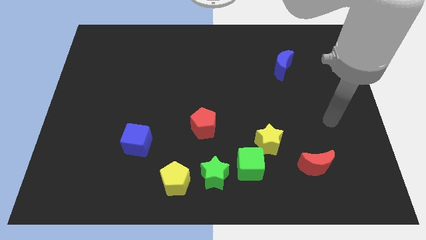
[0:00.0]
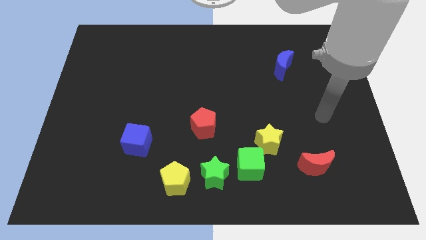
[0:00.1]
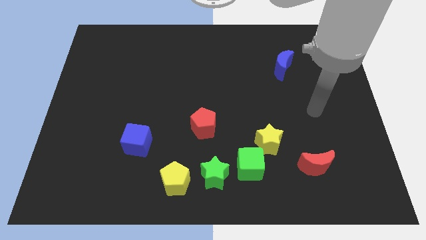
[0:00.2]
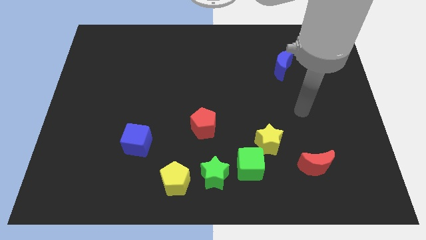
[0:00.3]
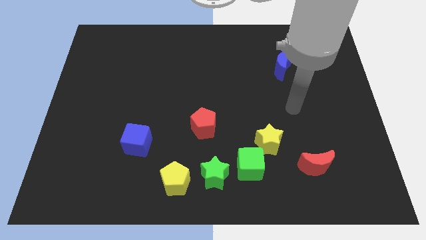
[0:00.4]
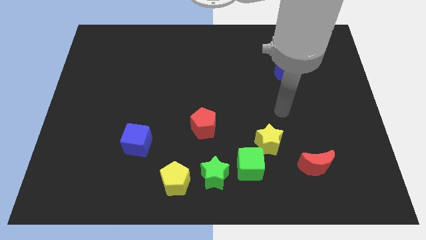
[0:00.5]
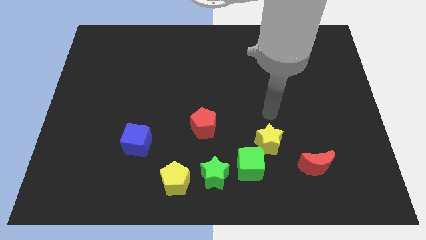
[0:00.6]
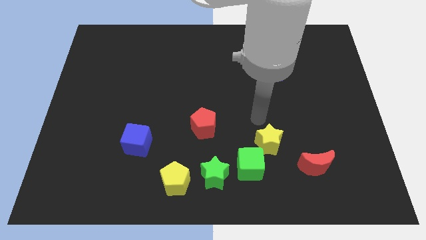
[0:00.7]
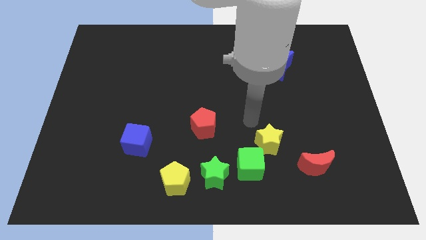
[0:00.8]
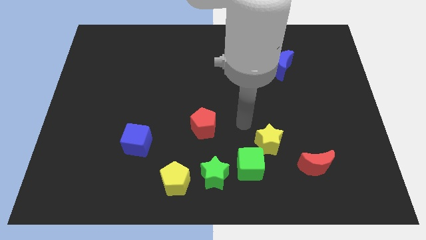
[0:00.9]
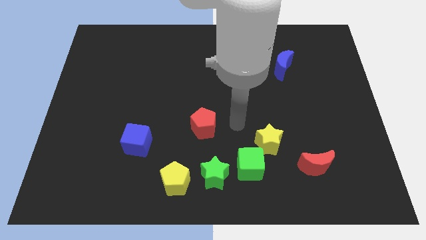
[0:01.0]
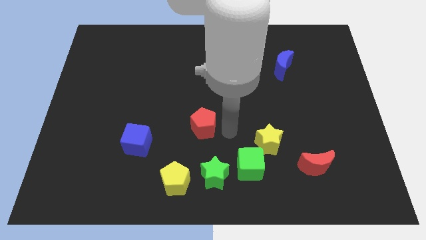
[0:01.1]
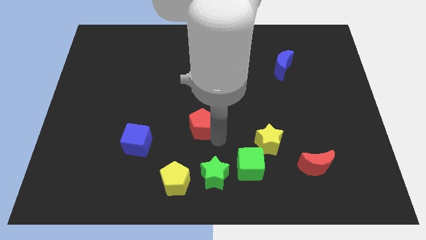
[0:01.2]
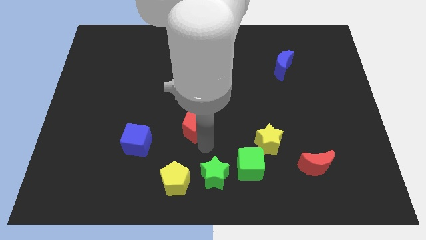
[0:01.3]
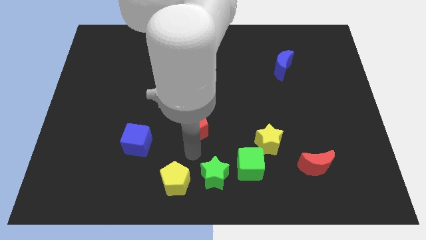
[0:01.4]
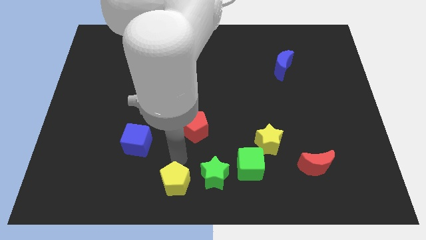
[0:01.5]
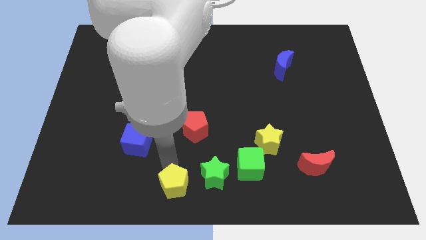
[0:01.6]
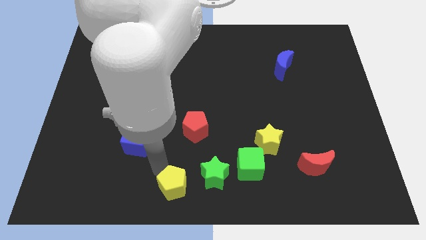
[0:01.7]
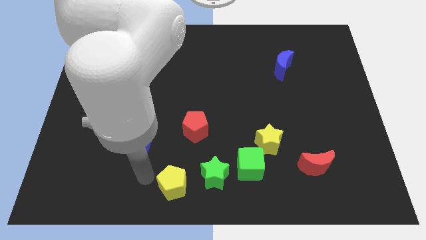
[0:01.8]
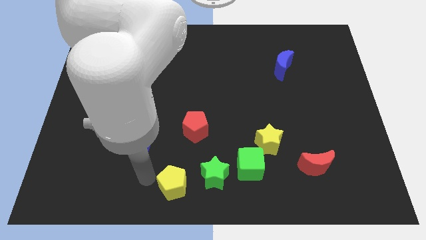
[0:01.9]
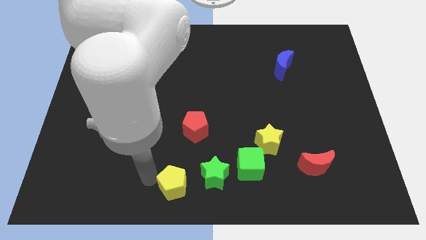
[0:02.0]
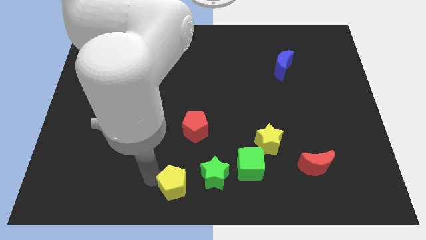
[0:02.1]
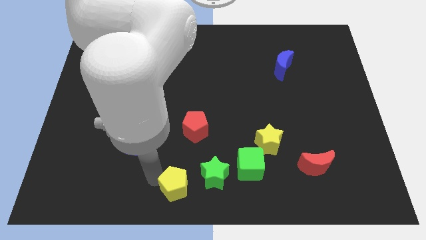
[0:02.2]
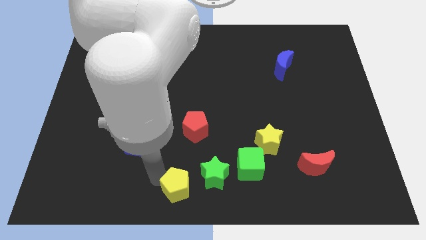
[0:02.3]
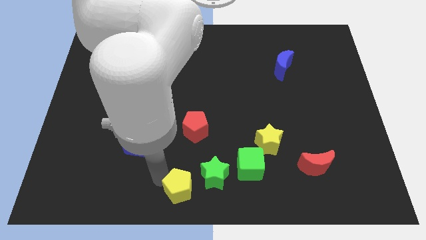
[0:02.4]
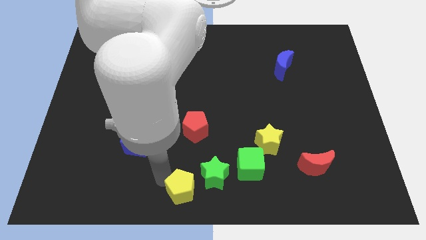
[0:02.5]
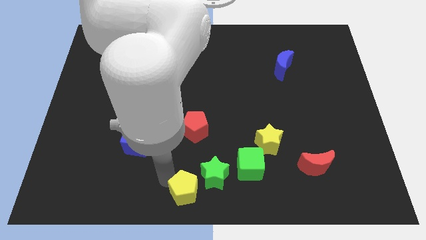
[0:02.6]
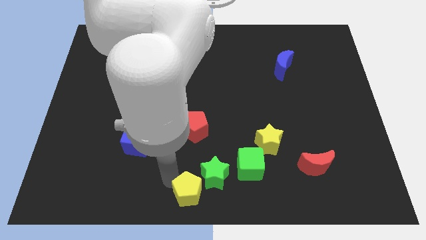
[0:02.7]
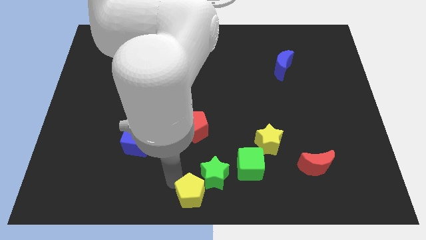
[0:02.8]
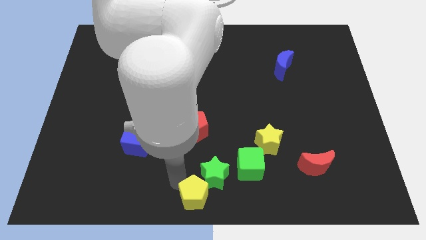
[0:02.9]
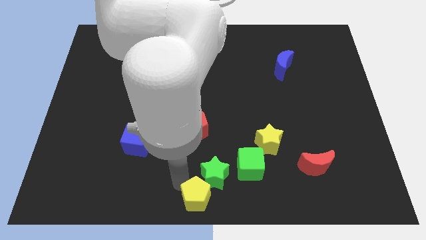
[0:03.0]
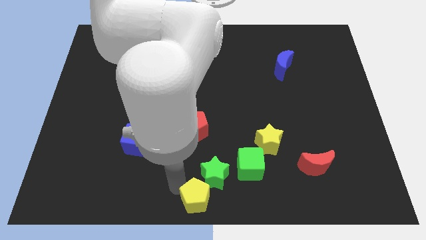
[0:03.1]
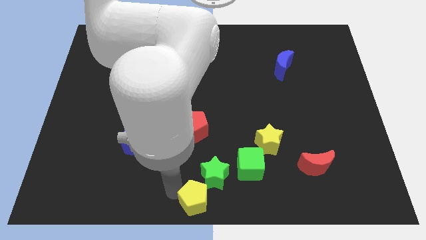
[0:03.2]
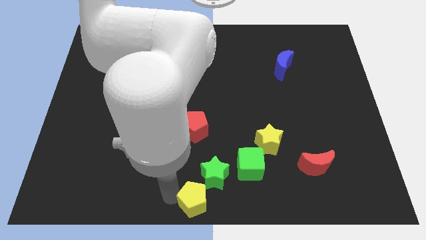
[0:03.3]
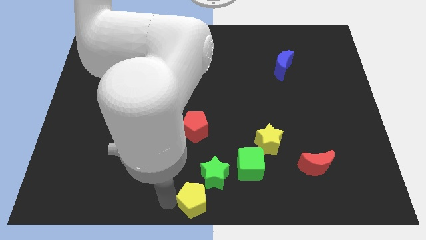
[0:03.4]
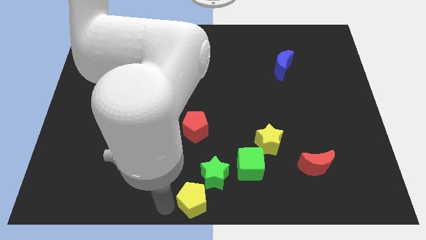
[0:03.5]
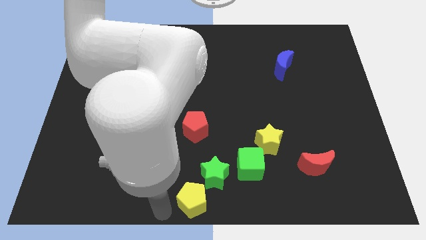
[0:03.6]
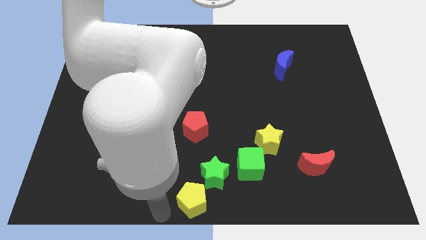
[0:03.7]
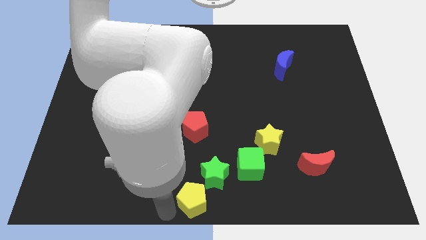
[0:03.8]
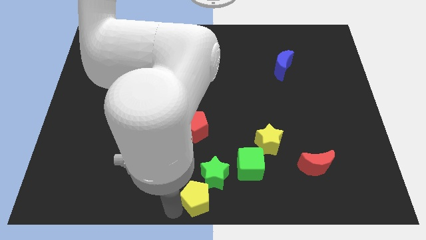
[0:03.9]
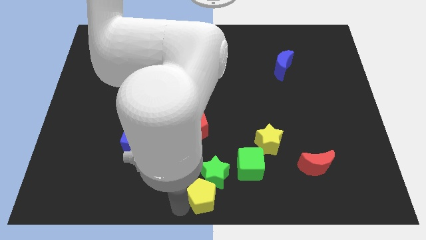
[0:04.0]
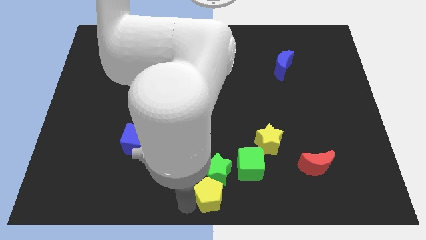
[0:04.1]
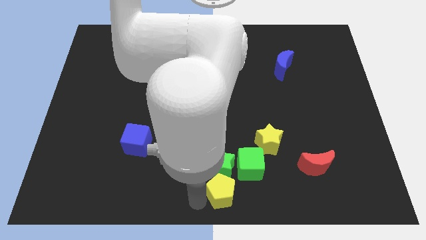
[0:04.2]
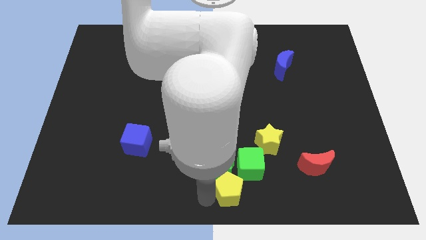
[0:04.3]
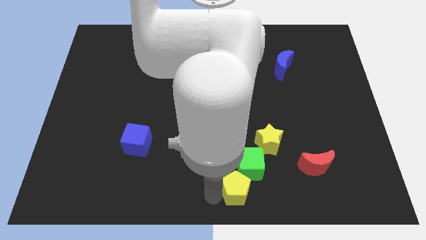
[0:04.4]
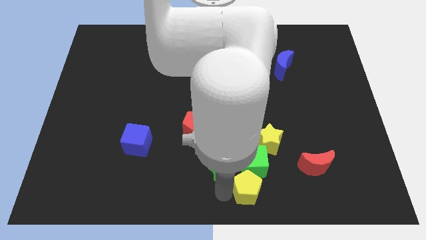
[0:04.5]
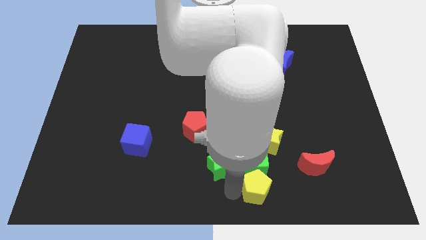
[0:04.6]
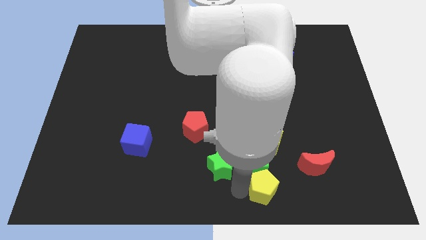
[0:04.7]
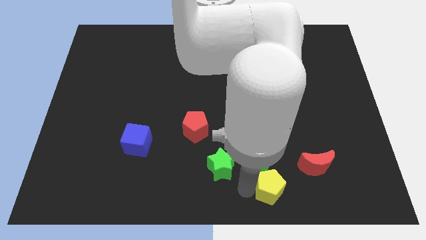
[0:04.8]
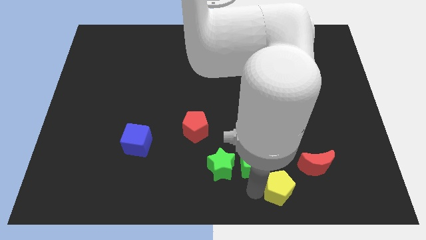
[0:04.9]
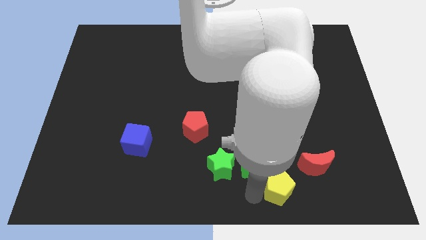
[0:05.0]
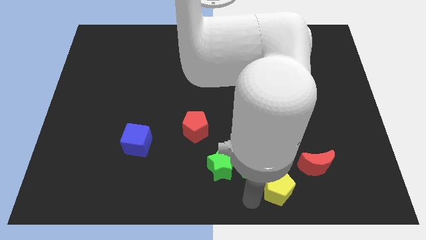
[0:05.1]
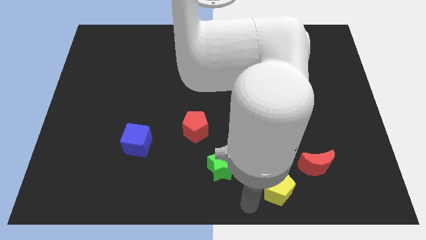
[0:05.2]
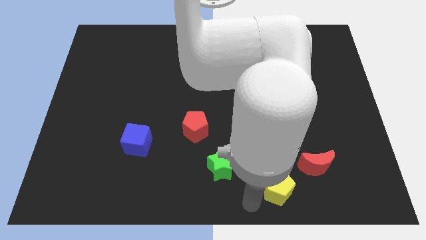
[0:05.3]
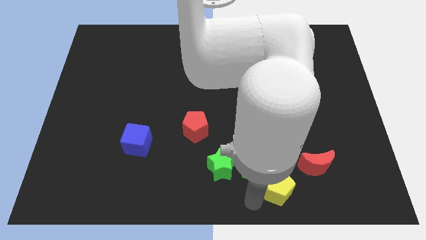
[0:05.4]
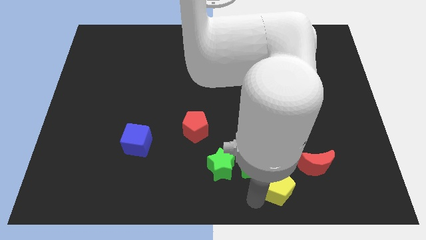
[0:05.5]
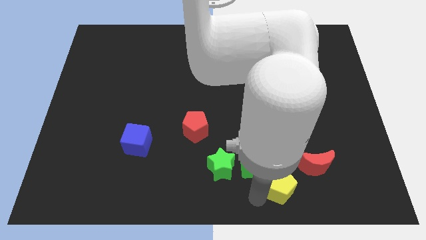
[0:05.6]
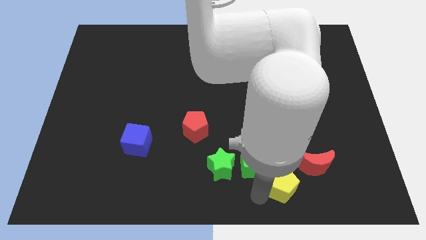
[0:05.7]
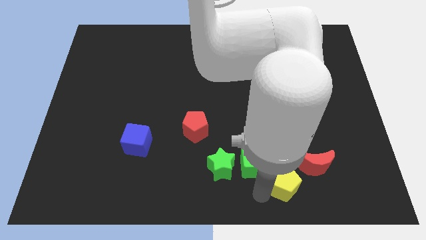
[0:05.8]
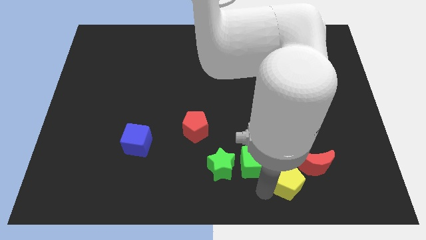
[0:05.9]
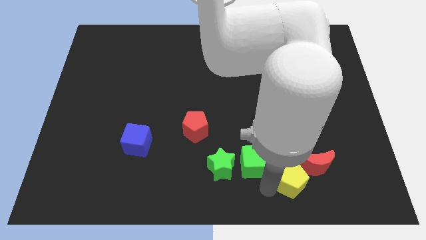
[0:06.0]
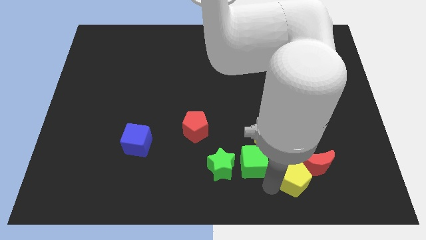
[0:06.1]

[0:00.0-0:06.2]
move the yellow pentagon to the red moon

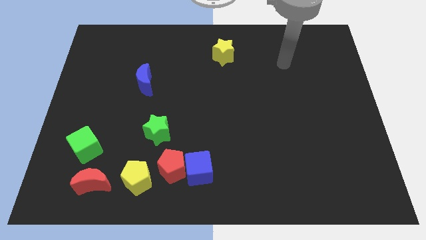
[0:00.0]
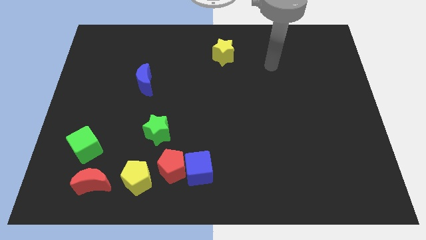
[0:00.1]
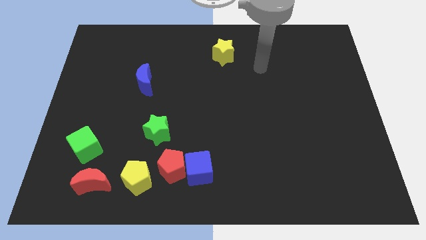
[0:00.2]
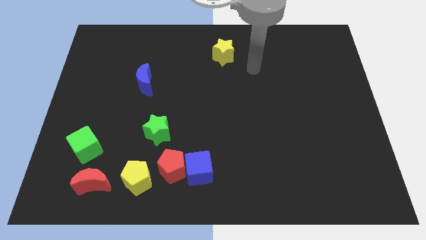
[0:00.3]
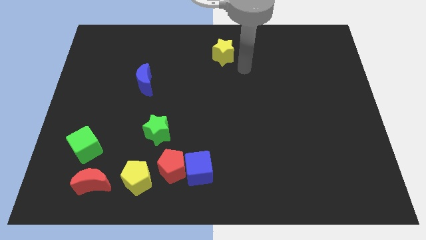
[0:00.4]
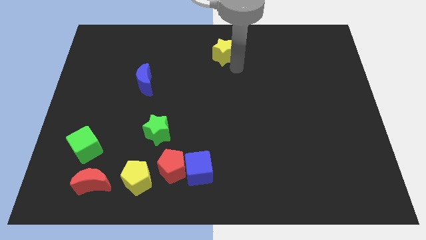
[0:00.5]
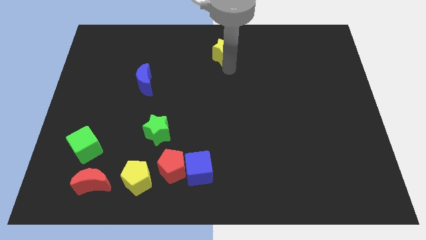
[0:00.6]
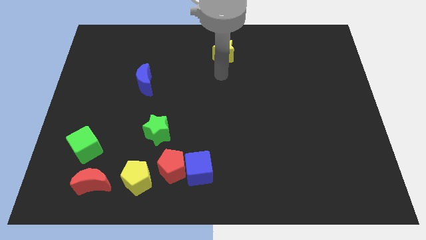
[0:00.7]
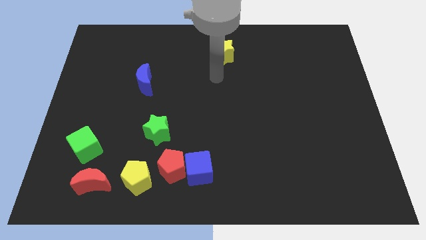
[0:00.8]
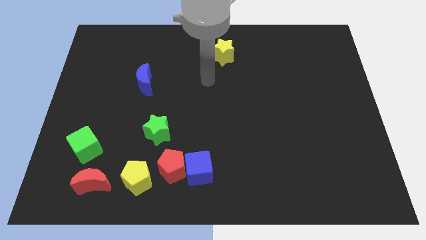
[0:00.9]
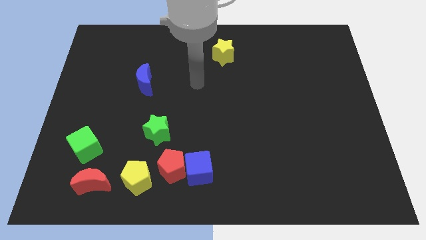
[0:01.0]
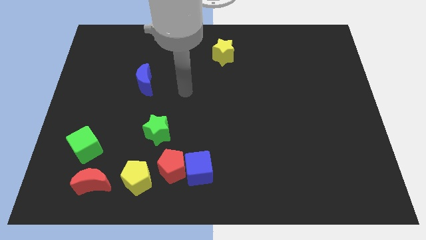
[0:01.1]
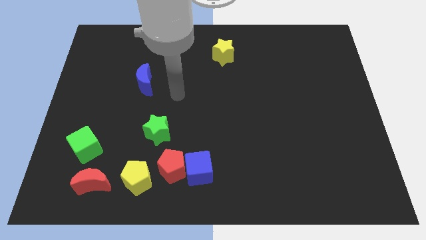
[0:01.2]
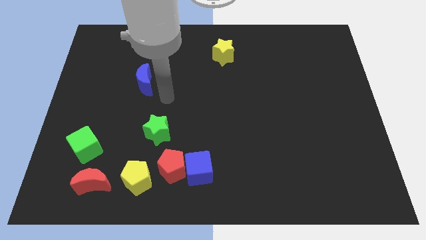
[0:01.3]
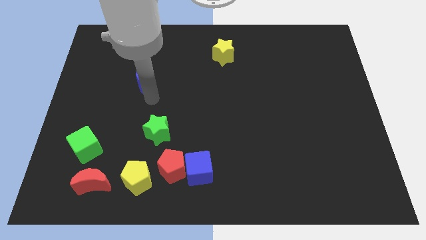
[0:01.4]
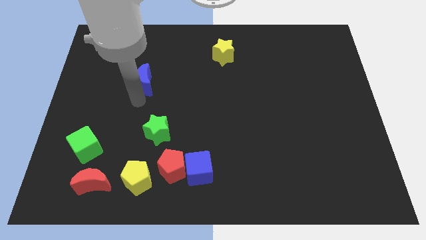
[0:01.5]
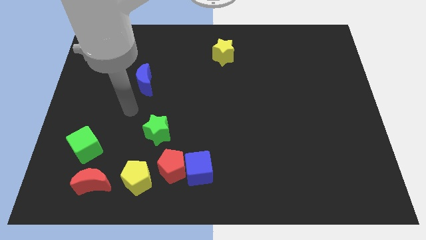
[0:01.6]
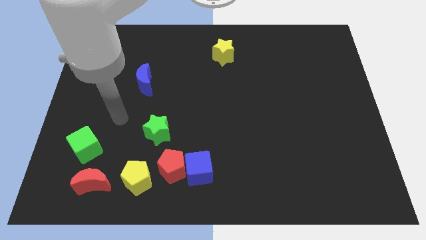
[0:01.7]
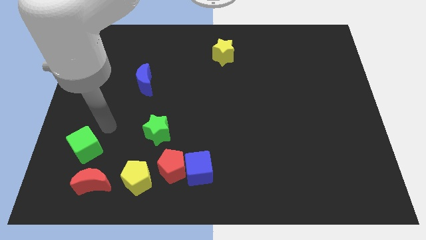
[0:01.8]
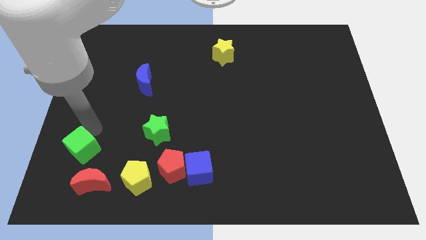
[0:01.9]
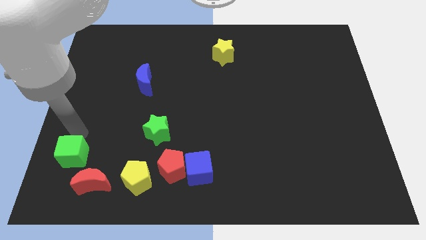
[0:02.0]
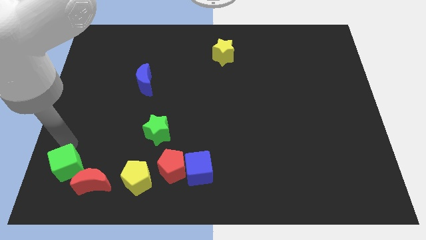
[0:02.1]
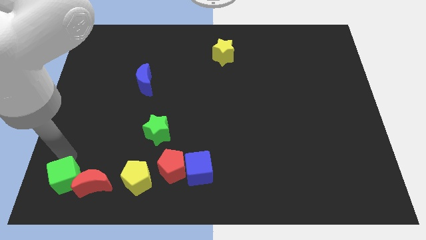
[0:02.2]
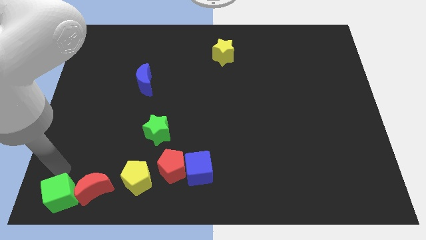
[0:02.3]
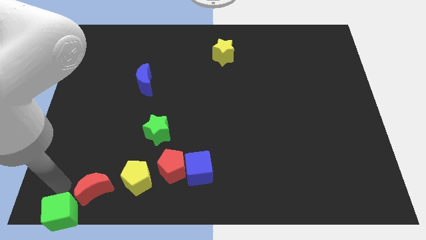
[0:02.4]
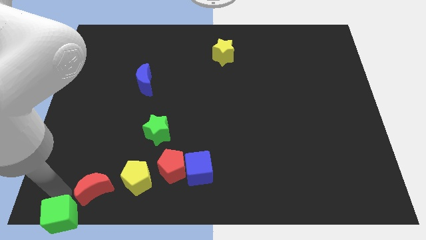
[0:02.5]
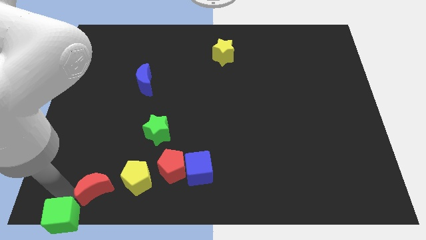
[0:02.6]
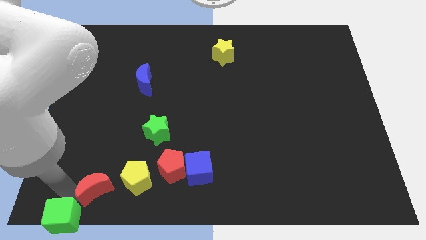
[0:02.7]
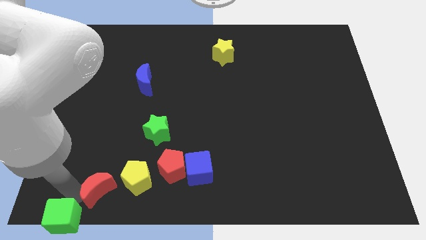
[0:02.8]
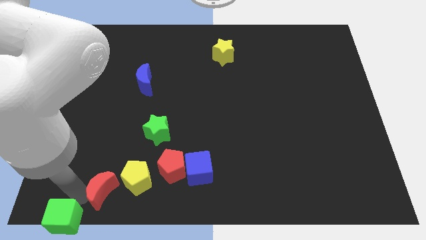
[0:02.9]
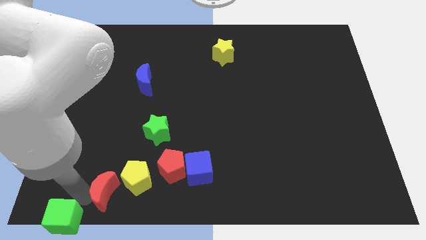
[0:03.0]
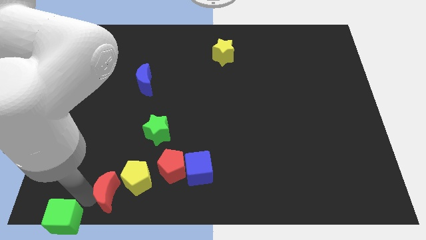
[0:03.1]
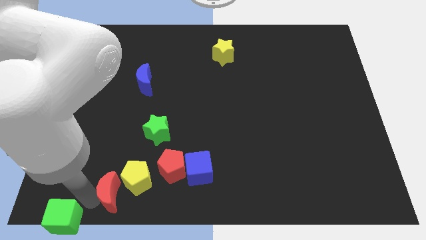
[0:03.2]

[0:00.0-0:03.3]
put the red moon to the yellow pentagon
